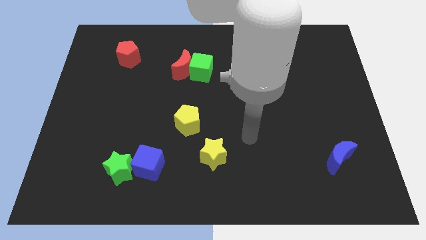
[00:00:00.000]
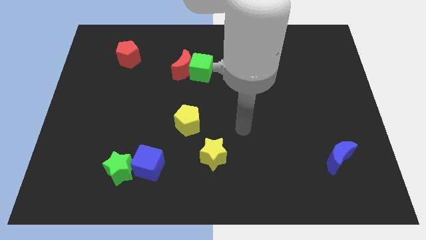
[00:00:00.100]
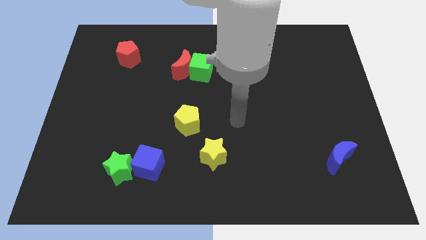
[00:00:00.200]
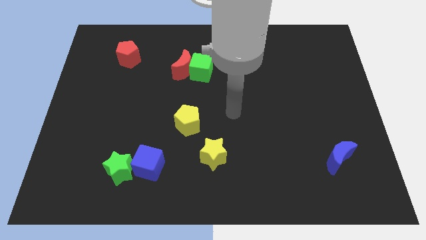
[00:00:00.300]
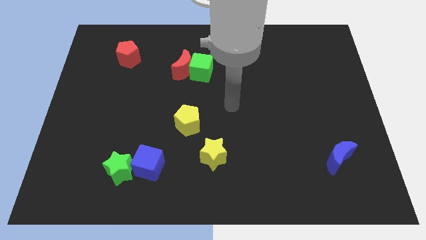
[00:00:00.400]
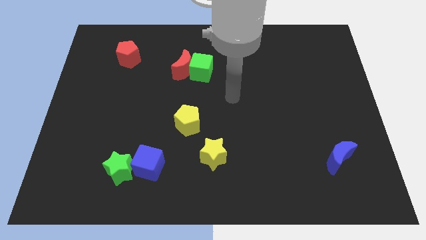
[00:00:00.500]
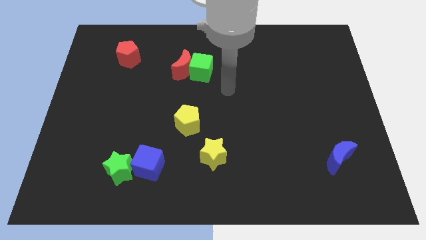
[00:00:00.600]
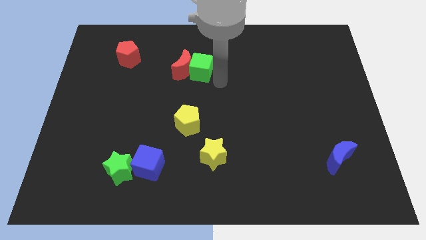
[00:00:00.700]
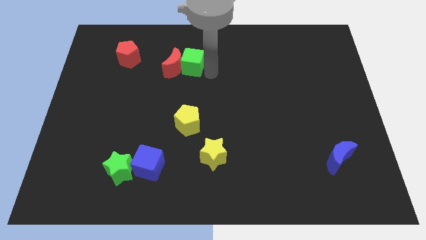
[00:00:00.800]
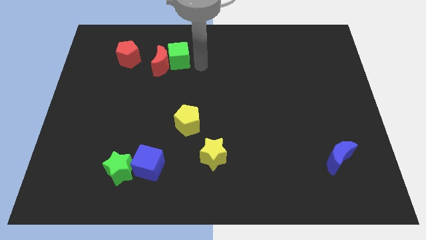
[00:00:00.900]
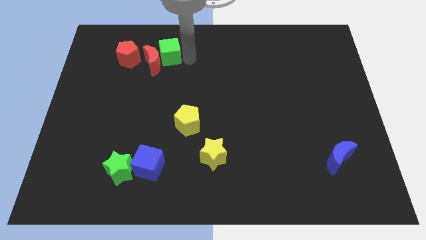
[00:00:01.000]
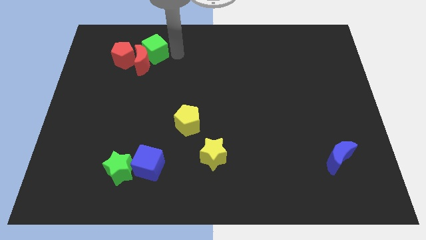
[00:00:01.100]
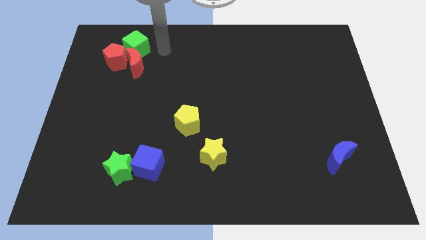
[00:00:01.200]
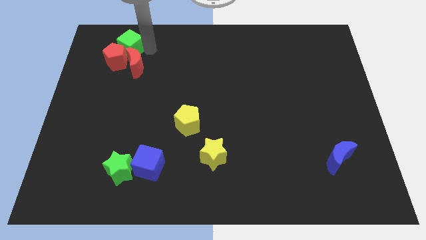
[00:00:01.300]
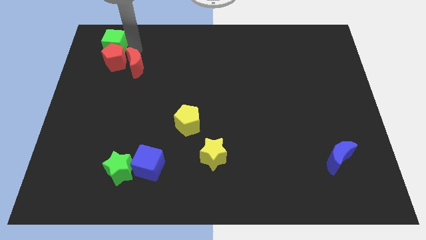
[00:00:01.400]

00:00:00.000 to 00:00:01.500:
pull the red moon apart from the green cube

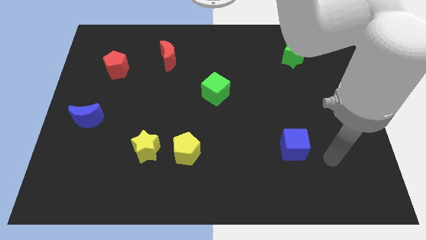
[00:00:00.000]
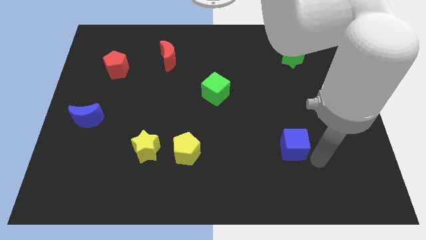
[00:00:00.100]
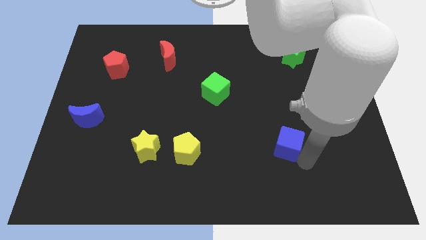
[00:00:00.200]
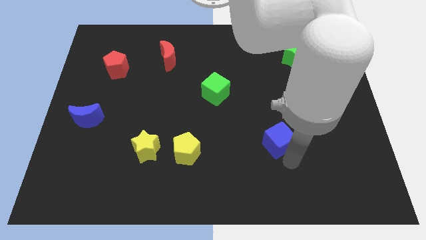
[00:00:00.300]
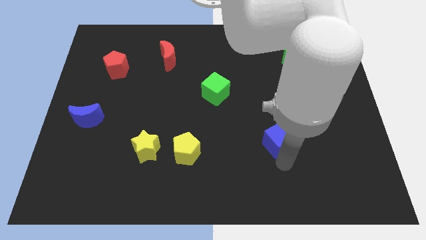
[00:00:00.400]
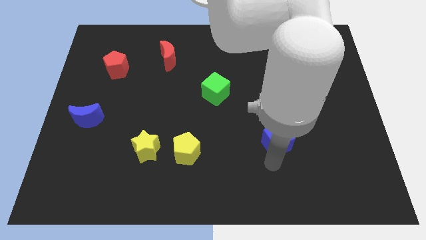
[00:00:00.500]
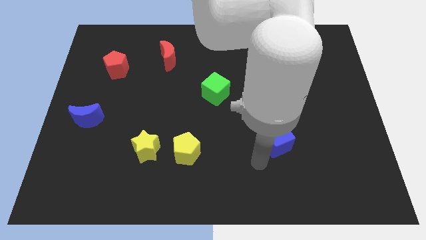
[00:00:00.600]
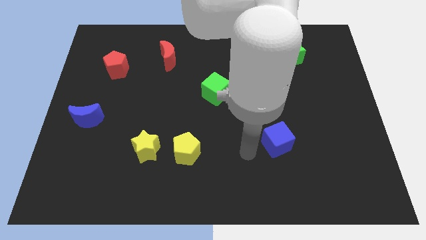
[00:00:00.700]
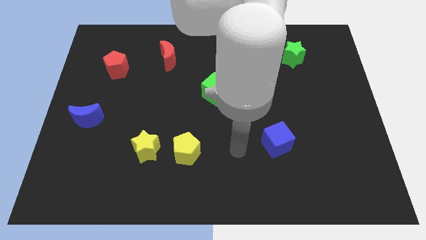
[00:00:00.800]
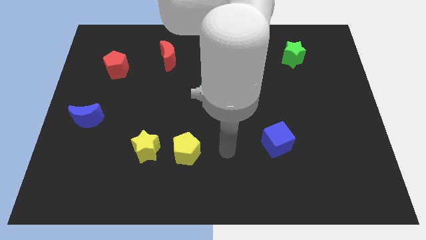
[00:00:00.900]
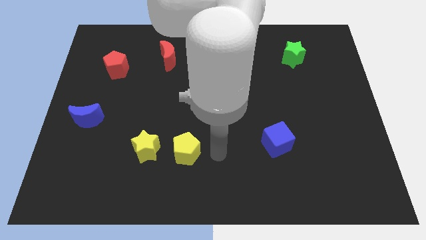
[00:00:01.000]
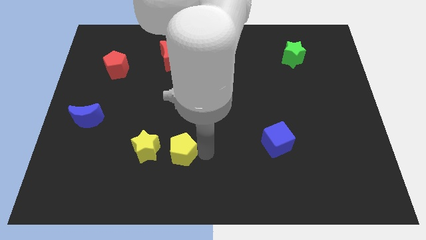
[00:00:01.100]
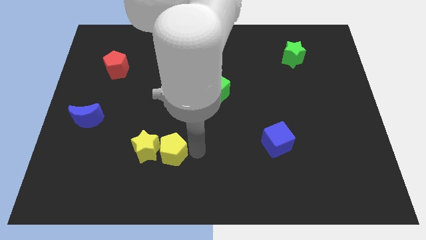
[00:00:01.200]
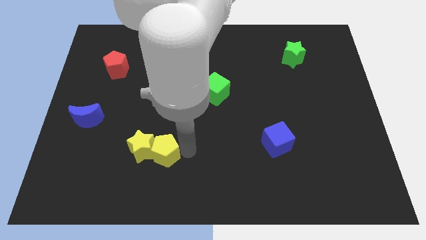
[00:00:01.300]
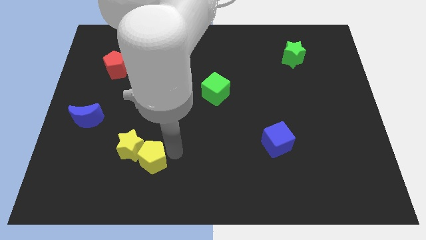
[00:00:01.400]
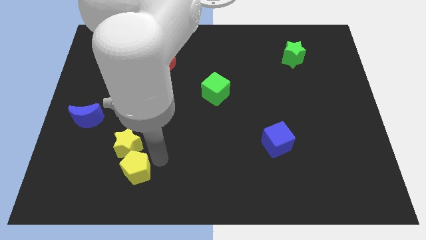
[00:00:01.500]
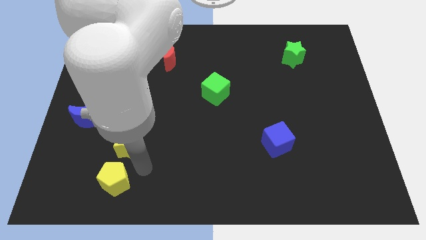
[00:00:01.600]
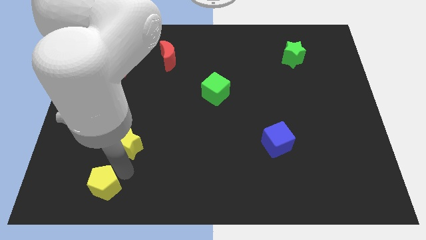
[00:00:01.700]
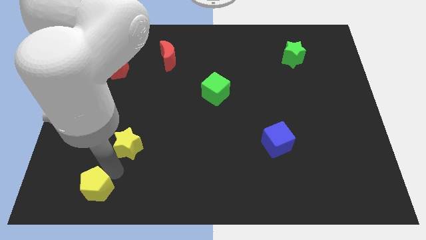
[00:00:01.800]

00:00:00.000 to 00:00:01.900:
separate the yellow star from the yellow pentagon

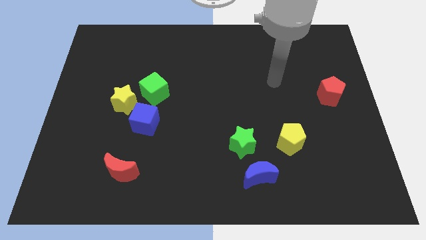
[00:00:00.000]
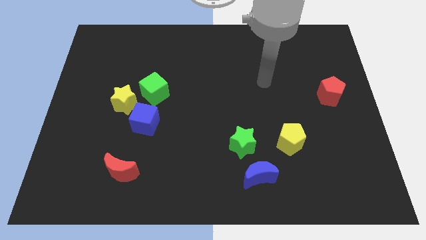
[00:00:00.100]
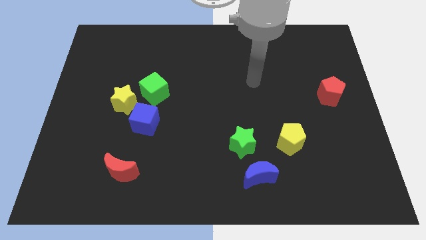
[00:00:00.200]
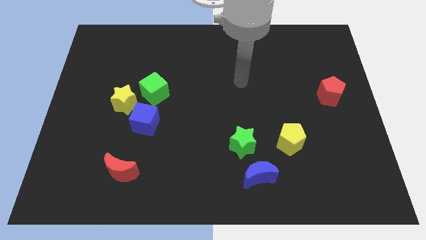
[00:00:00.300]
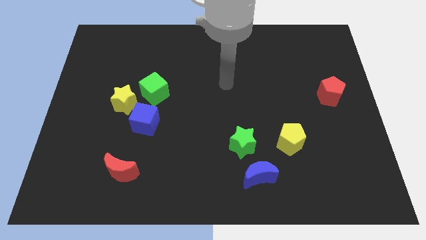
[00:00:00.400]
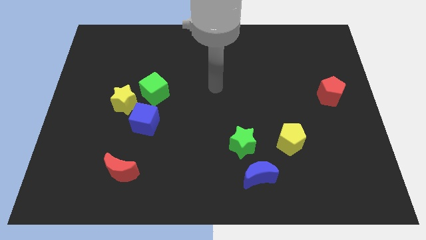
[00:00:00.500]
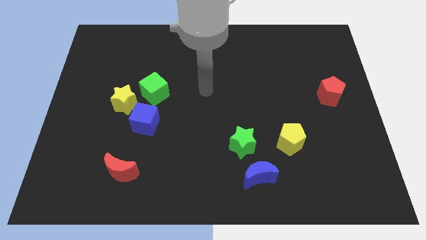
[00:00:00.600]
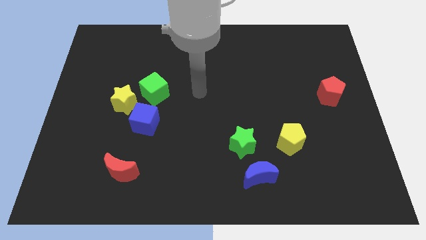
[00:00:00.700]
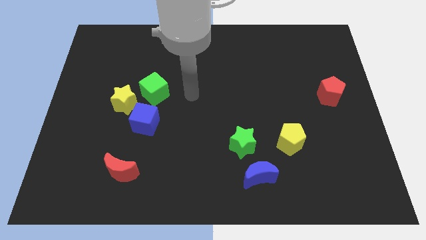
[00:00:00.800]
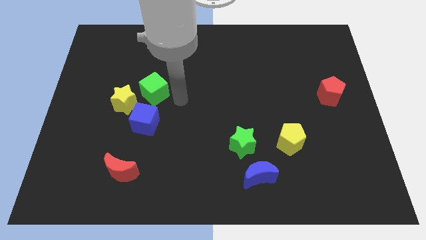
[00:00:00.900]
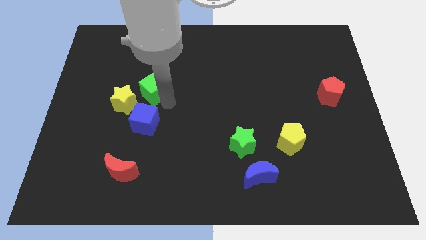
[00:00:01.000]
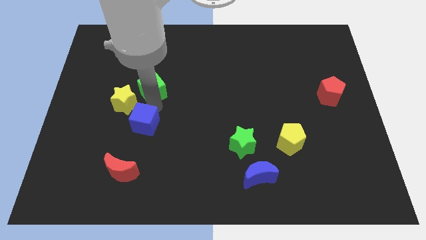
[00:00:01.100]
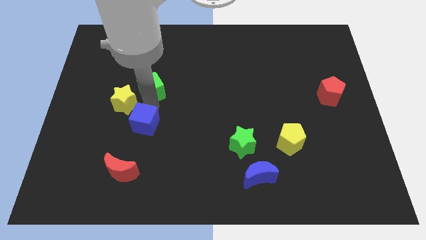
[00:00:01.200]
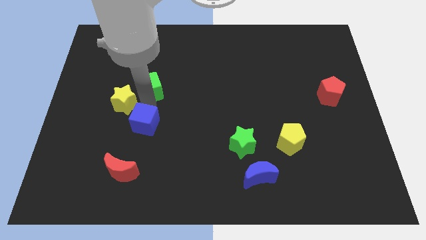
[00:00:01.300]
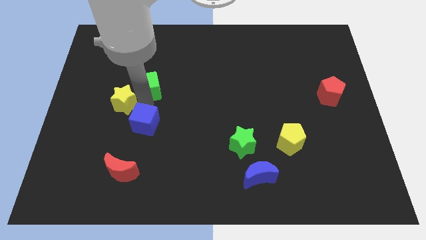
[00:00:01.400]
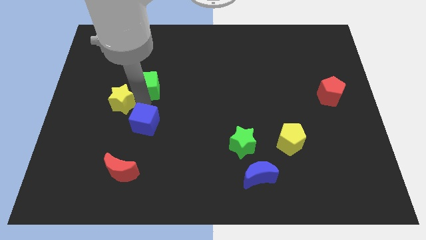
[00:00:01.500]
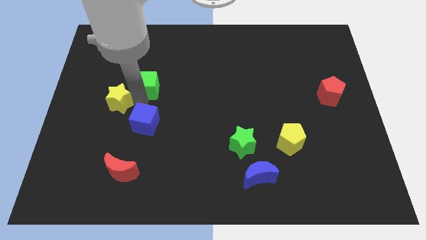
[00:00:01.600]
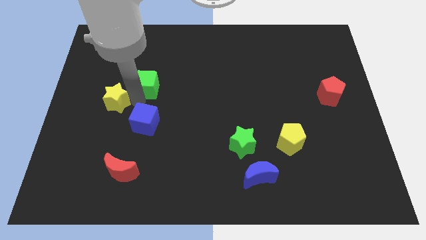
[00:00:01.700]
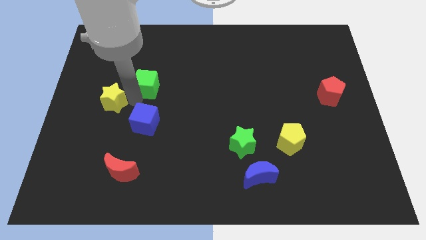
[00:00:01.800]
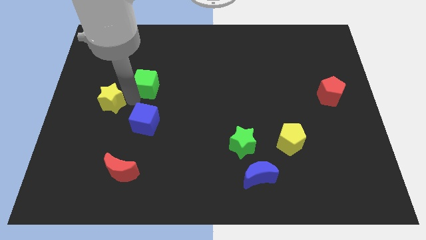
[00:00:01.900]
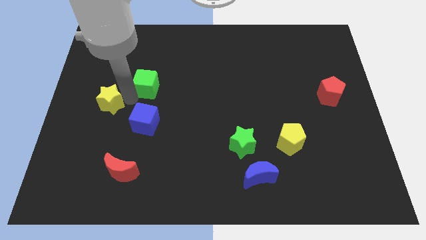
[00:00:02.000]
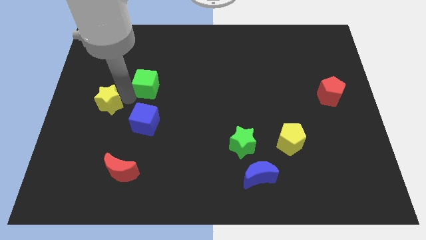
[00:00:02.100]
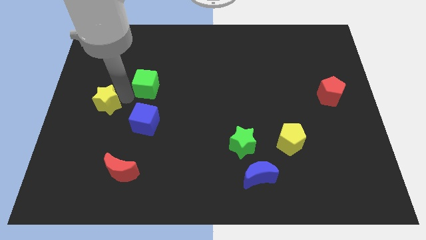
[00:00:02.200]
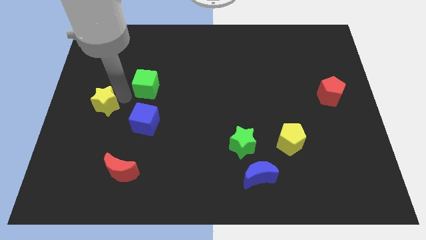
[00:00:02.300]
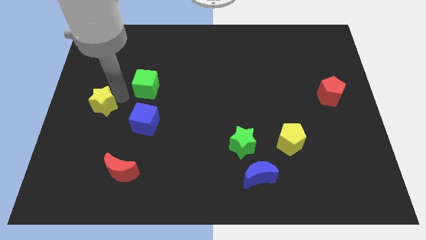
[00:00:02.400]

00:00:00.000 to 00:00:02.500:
move the yellow star away from the green cube and blue cube

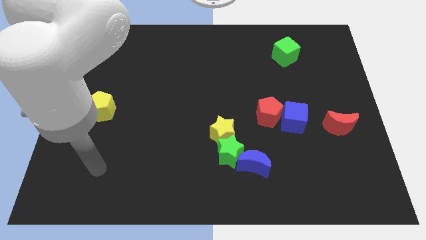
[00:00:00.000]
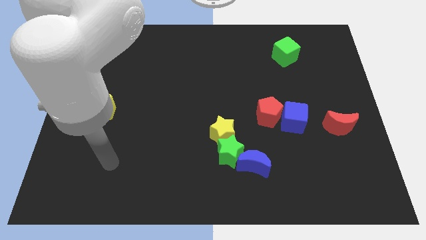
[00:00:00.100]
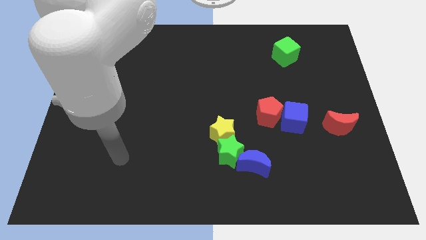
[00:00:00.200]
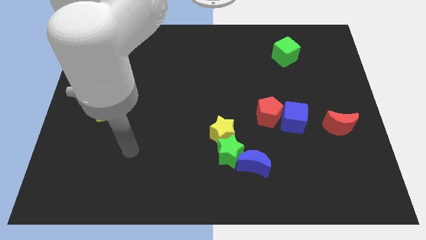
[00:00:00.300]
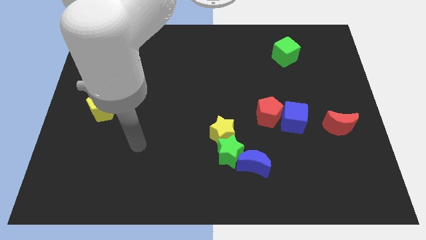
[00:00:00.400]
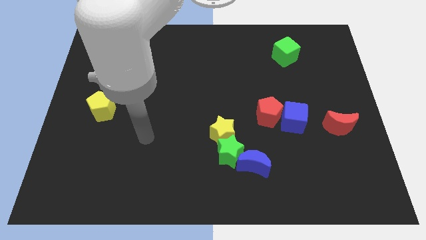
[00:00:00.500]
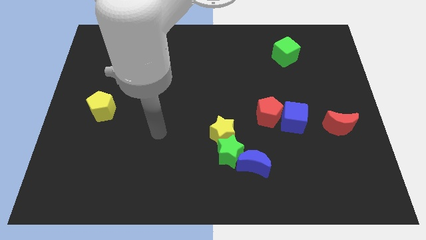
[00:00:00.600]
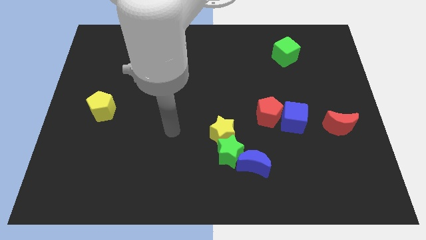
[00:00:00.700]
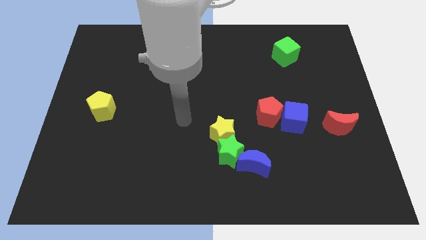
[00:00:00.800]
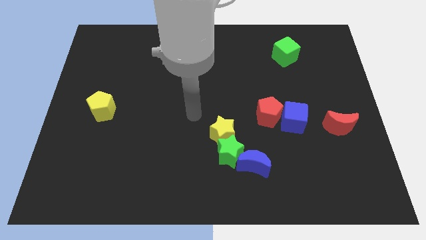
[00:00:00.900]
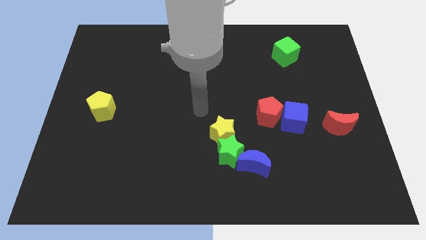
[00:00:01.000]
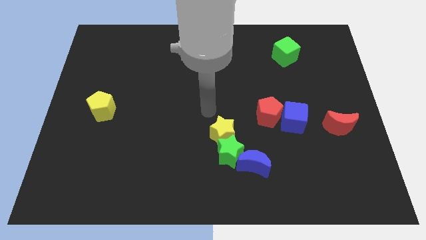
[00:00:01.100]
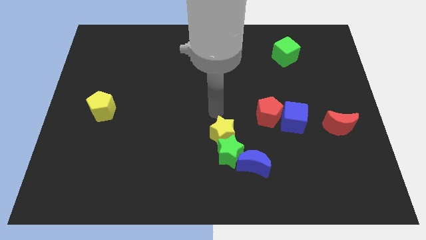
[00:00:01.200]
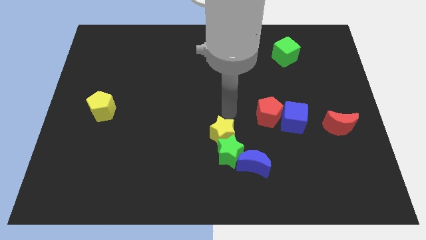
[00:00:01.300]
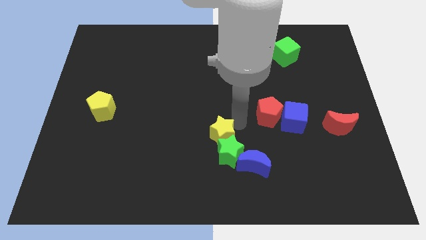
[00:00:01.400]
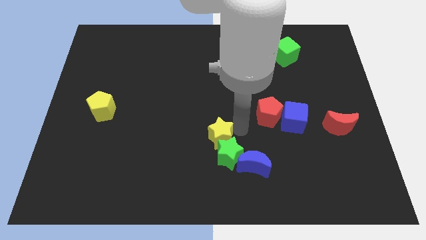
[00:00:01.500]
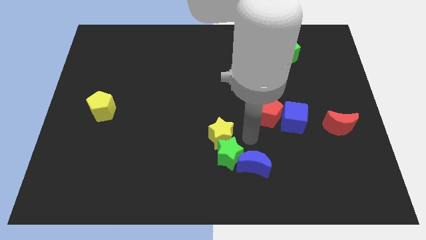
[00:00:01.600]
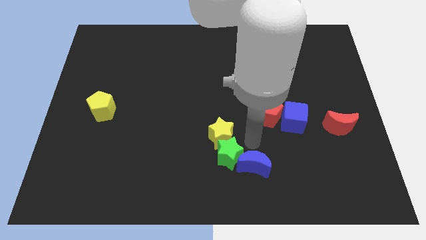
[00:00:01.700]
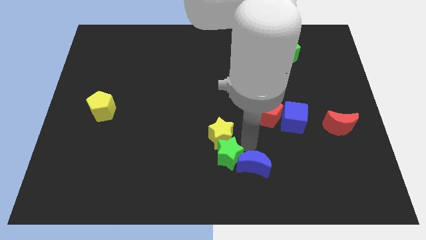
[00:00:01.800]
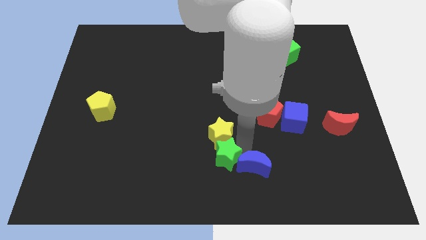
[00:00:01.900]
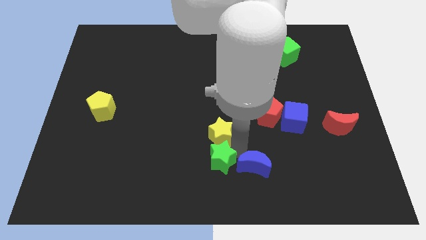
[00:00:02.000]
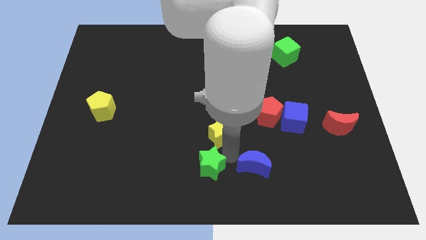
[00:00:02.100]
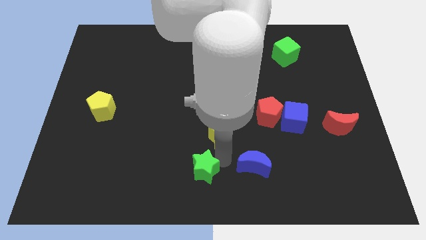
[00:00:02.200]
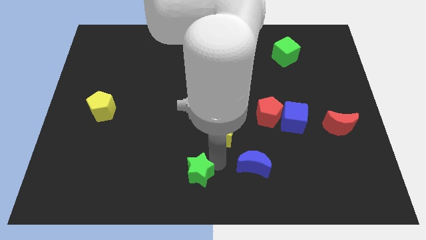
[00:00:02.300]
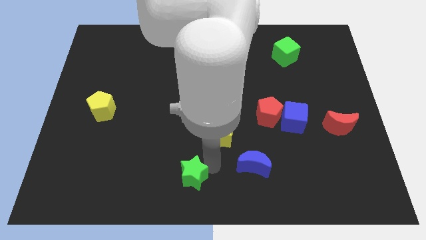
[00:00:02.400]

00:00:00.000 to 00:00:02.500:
separate the green star from the yellow star and blue moon

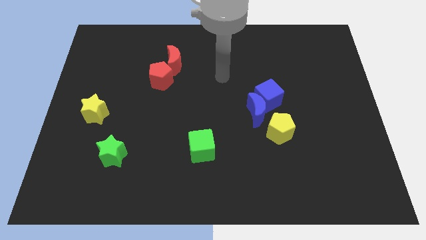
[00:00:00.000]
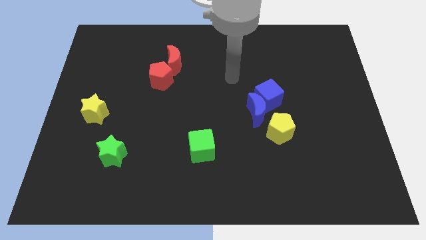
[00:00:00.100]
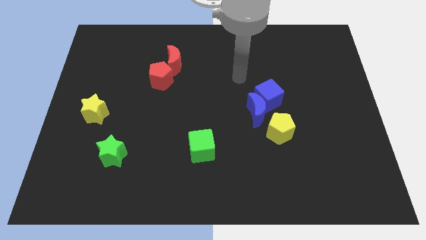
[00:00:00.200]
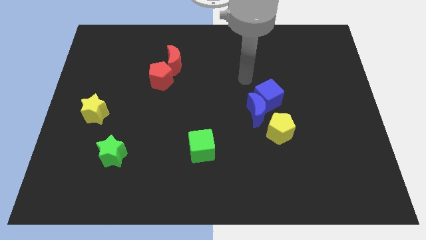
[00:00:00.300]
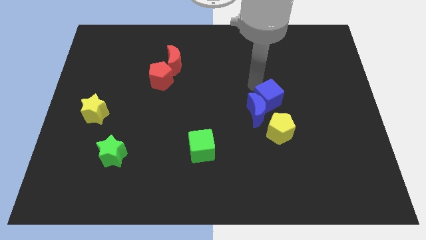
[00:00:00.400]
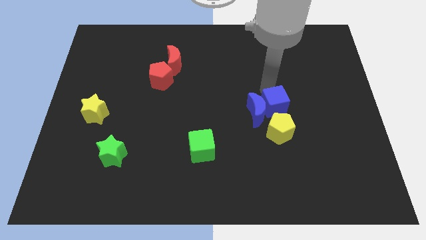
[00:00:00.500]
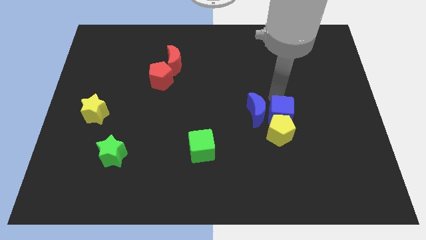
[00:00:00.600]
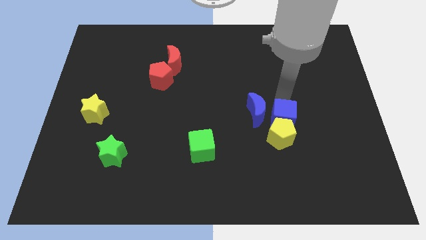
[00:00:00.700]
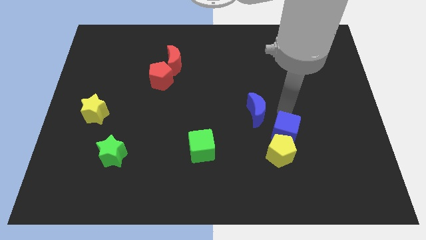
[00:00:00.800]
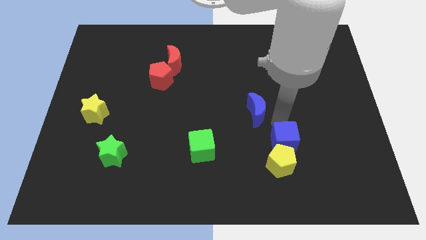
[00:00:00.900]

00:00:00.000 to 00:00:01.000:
move the blue moon away from the blue cube and yellow pentagon
